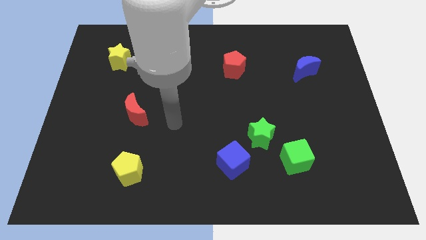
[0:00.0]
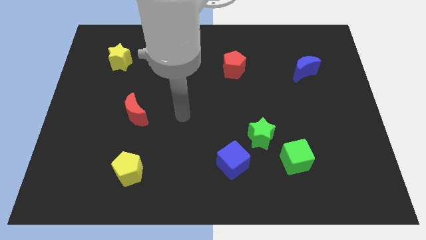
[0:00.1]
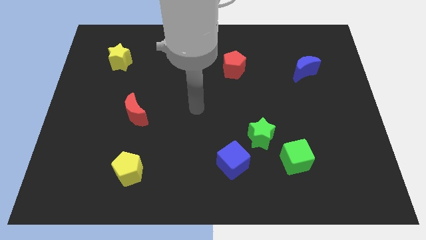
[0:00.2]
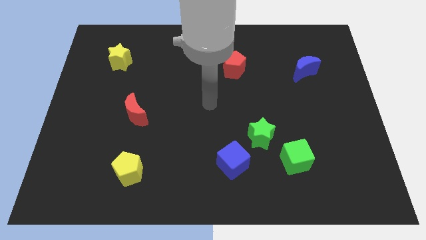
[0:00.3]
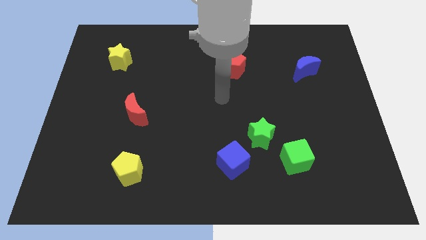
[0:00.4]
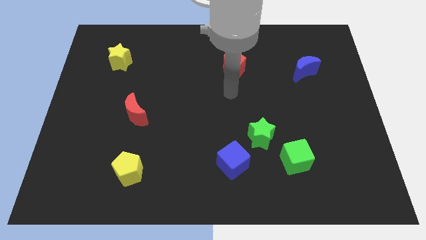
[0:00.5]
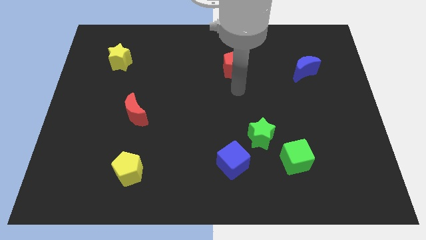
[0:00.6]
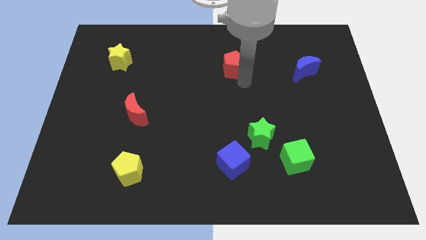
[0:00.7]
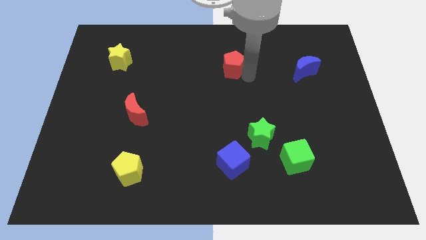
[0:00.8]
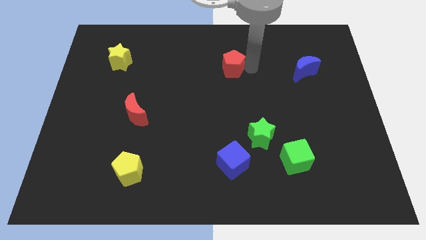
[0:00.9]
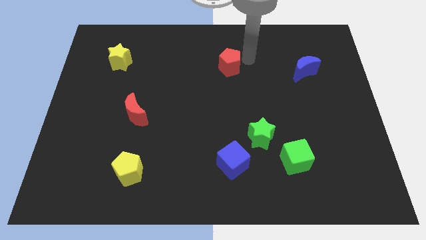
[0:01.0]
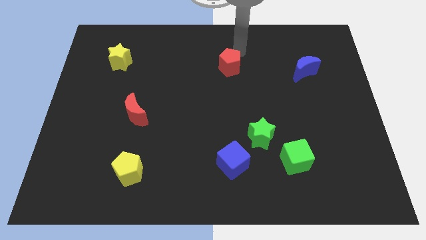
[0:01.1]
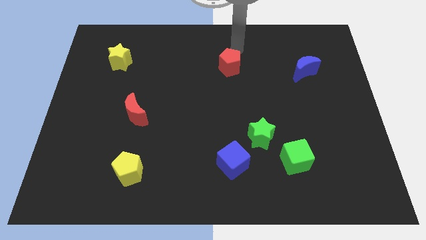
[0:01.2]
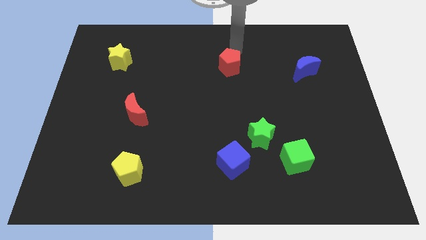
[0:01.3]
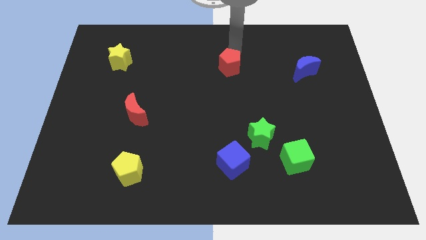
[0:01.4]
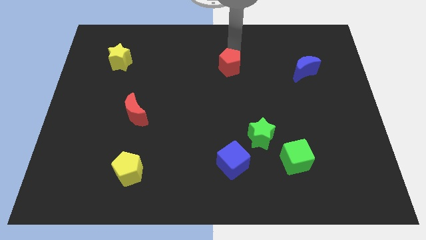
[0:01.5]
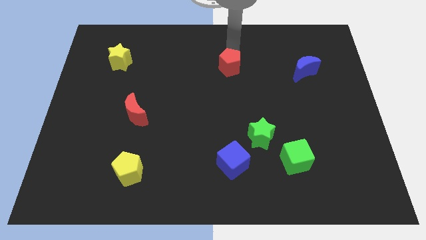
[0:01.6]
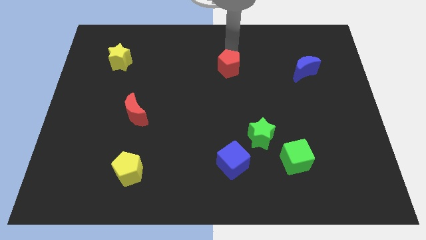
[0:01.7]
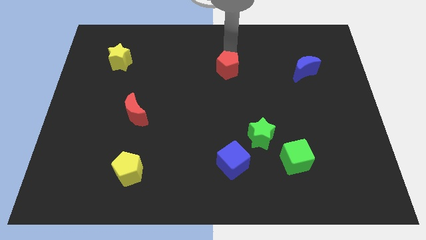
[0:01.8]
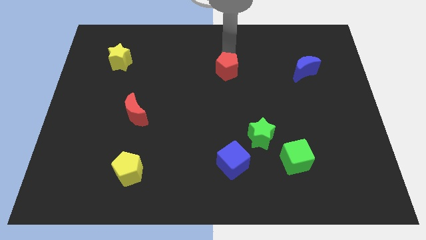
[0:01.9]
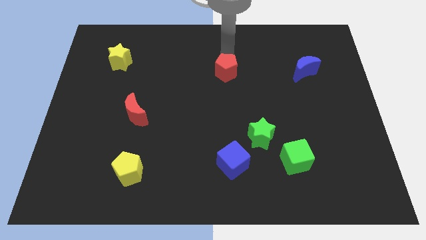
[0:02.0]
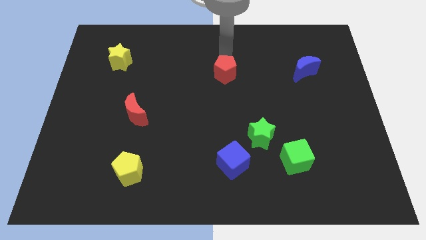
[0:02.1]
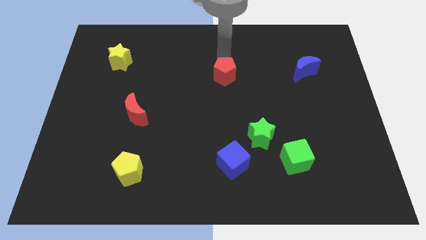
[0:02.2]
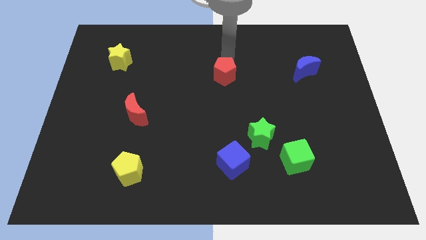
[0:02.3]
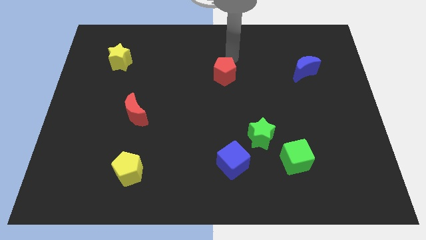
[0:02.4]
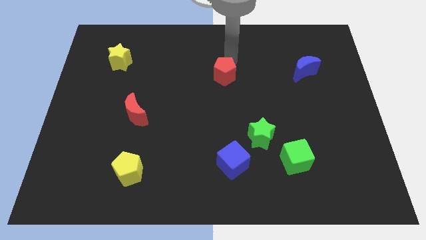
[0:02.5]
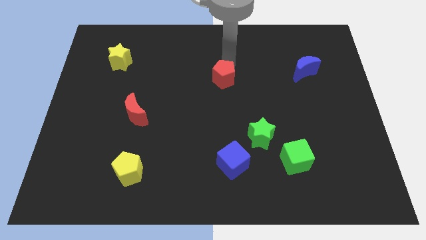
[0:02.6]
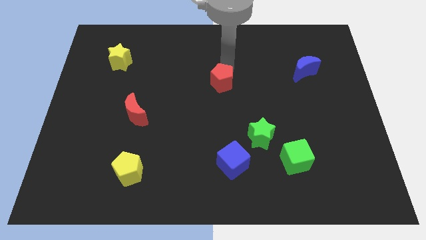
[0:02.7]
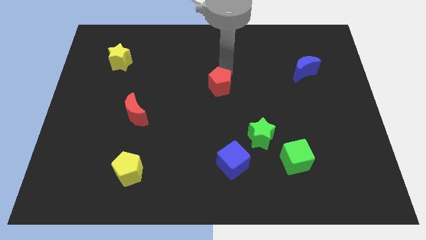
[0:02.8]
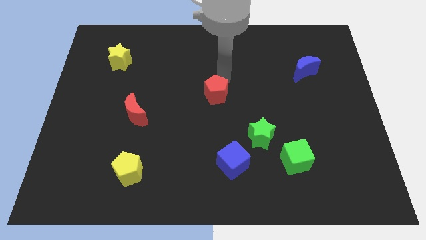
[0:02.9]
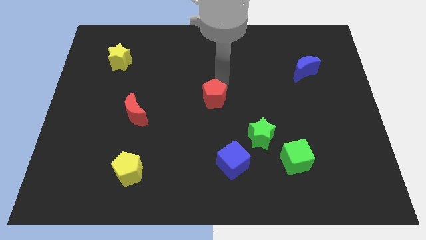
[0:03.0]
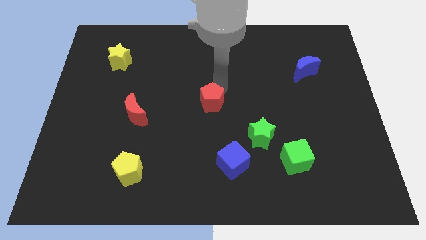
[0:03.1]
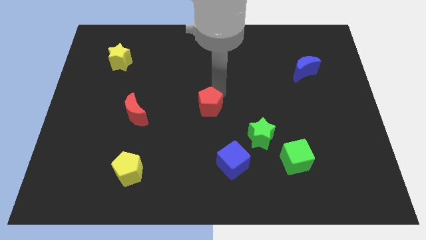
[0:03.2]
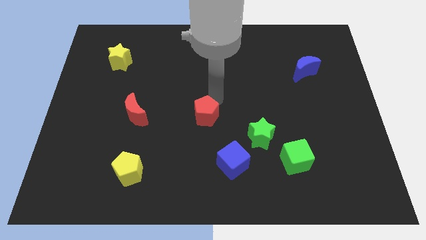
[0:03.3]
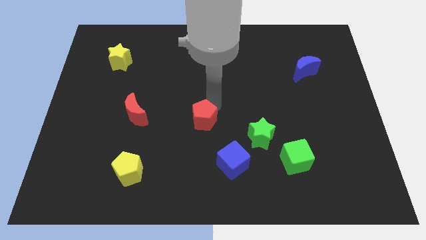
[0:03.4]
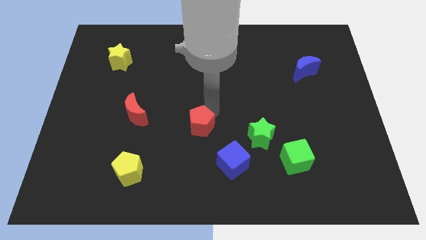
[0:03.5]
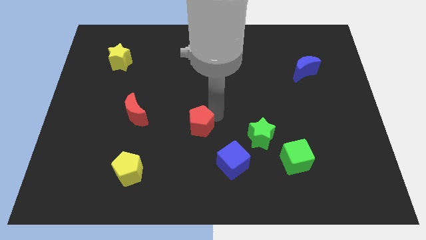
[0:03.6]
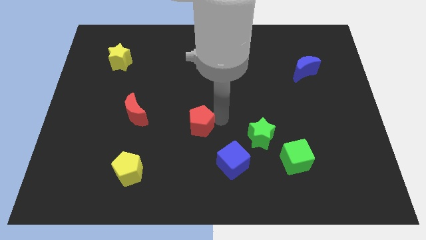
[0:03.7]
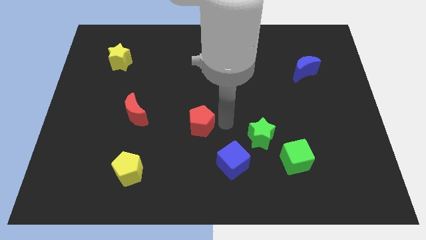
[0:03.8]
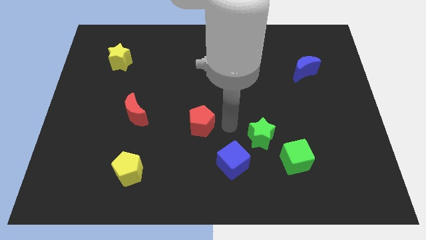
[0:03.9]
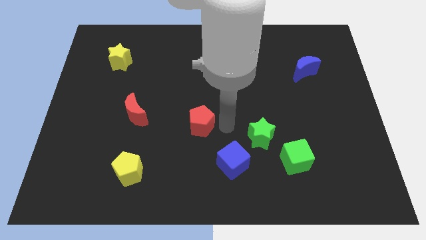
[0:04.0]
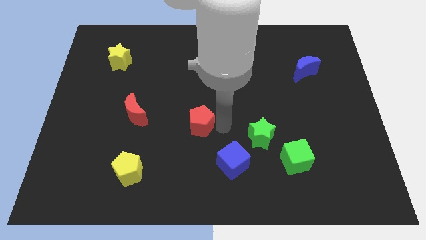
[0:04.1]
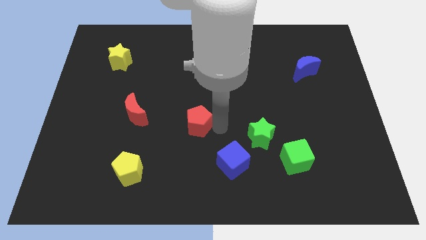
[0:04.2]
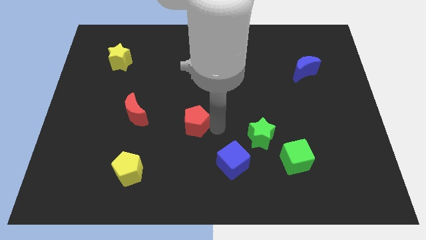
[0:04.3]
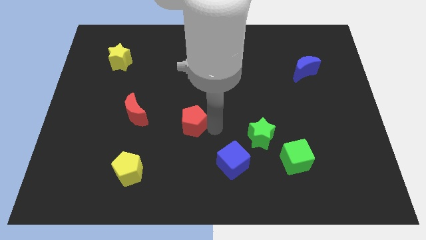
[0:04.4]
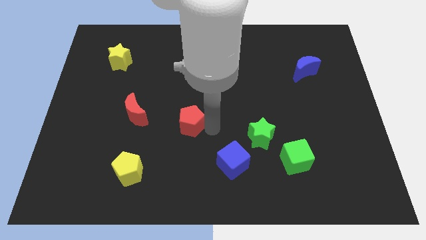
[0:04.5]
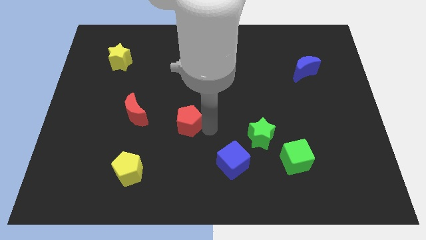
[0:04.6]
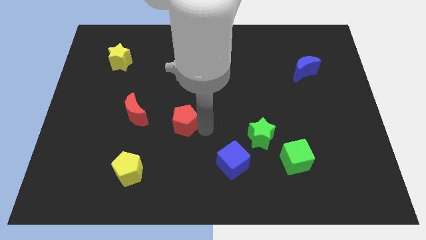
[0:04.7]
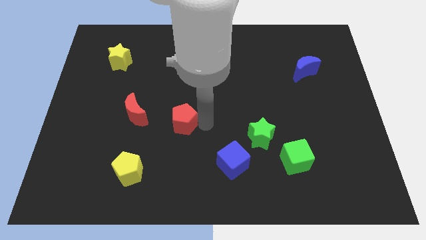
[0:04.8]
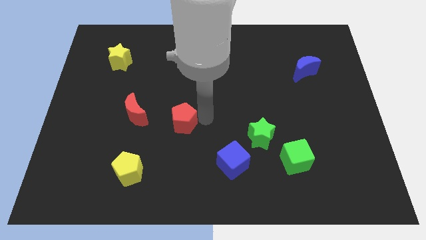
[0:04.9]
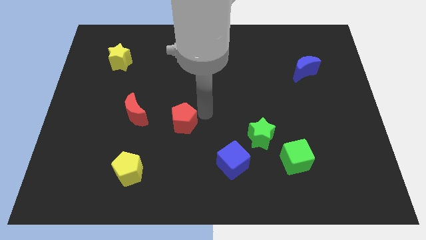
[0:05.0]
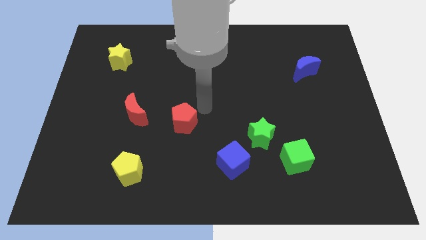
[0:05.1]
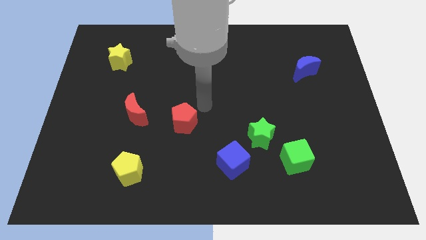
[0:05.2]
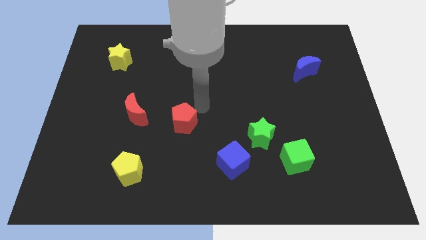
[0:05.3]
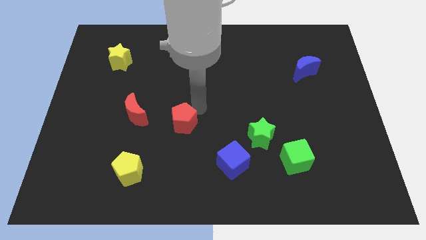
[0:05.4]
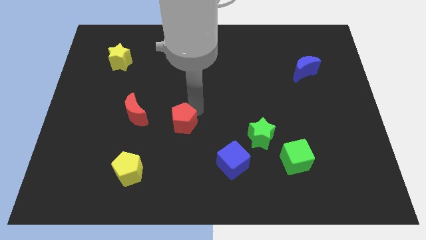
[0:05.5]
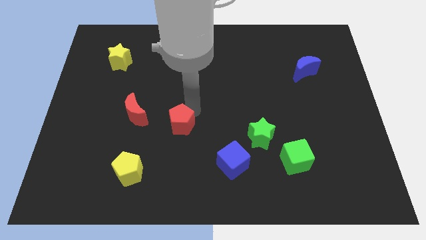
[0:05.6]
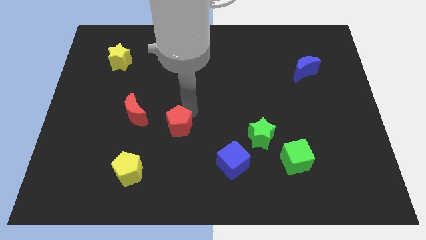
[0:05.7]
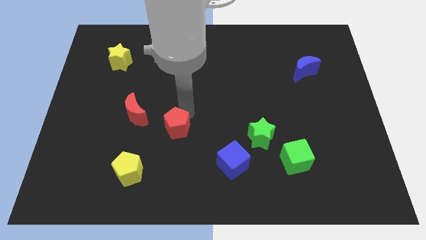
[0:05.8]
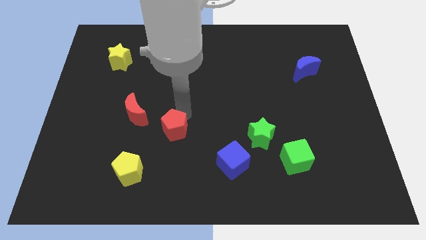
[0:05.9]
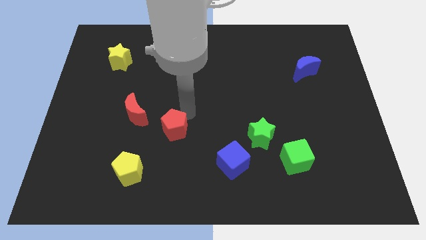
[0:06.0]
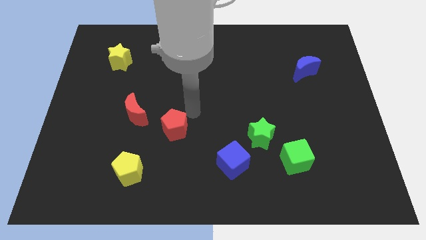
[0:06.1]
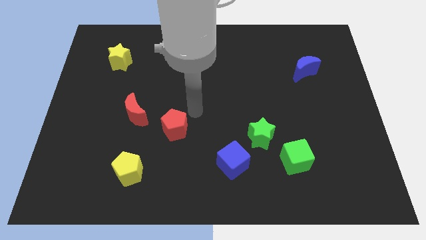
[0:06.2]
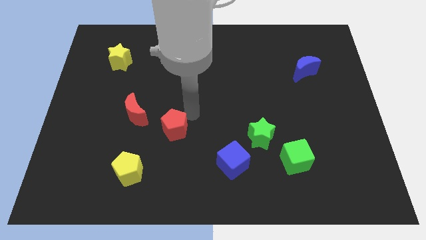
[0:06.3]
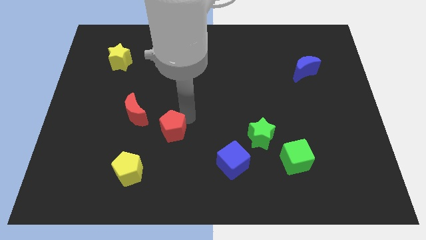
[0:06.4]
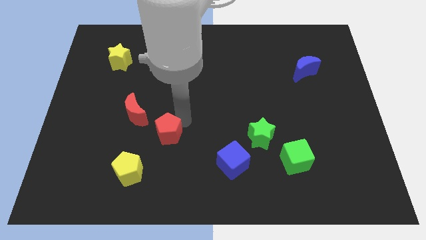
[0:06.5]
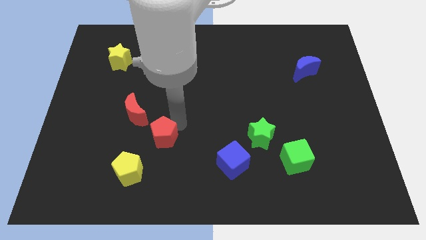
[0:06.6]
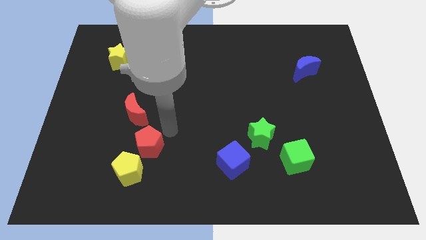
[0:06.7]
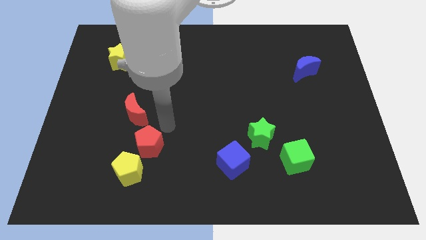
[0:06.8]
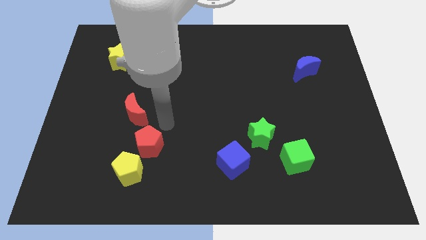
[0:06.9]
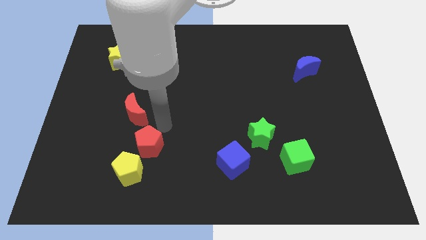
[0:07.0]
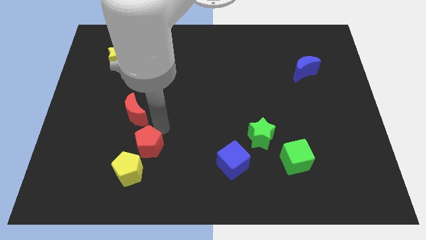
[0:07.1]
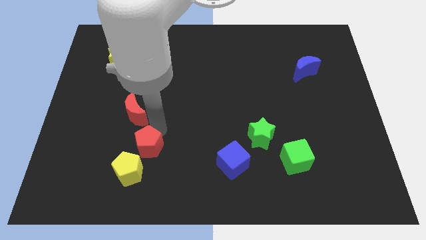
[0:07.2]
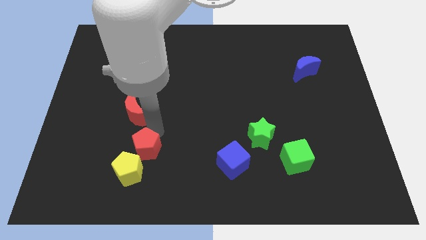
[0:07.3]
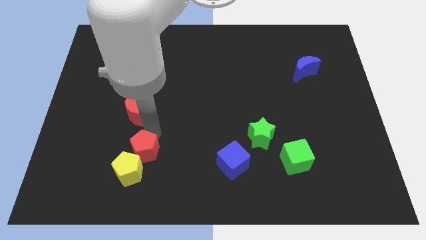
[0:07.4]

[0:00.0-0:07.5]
push the red pentagon close to the yellow pentagon
